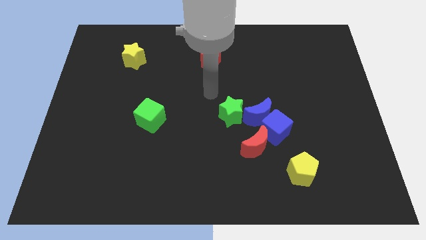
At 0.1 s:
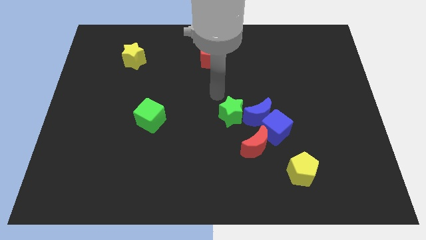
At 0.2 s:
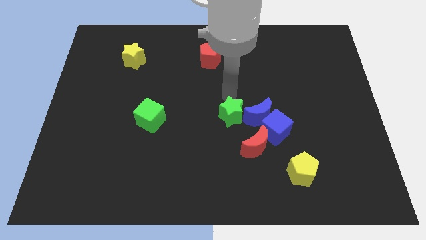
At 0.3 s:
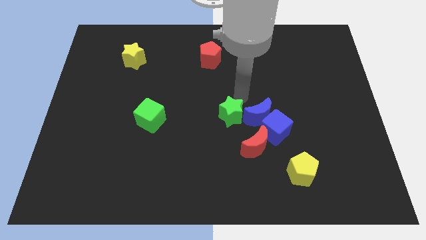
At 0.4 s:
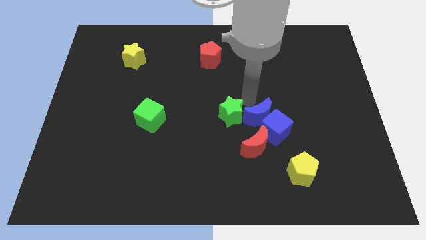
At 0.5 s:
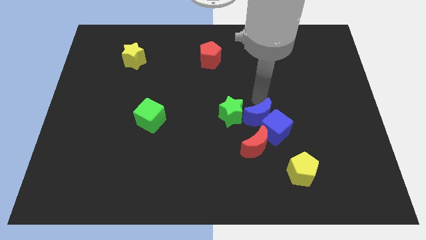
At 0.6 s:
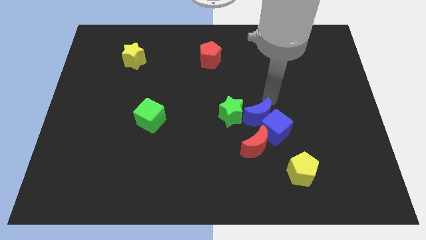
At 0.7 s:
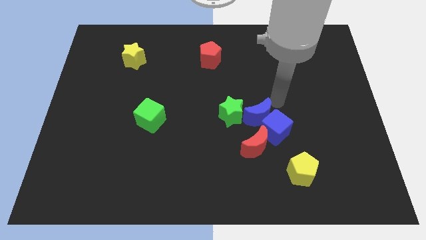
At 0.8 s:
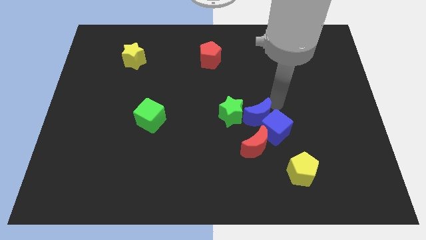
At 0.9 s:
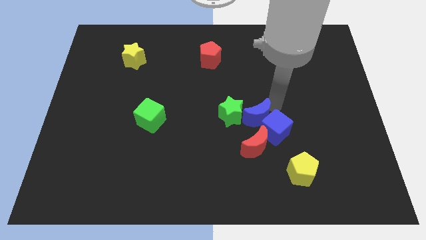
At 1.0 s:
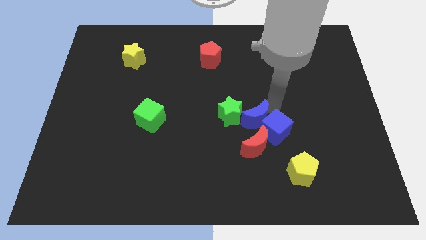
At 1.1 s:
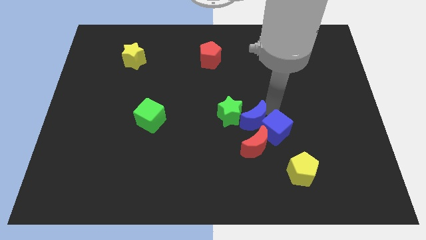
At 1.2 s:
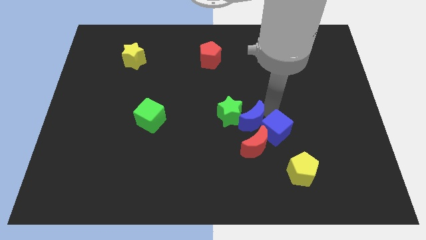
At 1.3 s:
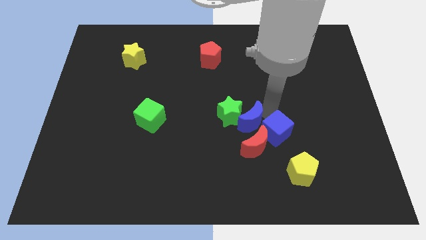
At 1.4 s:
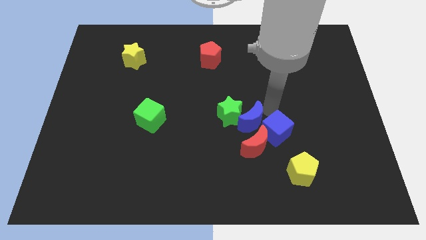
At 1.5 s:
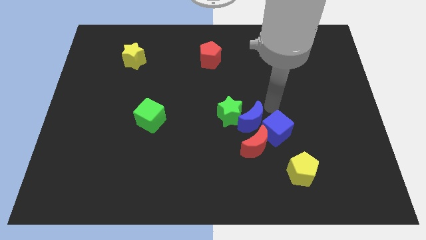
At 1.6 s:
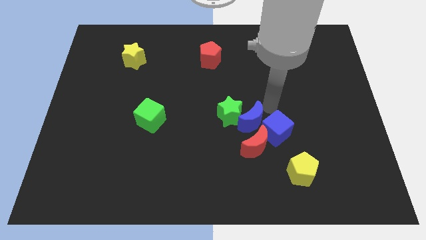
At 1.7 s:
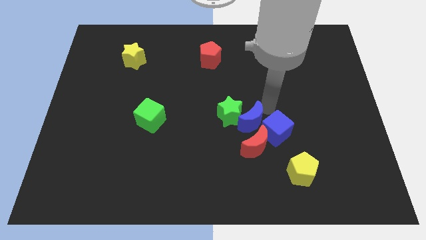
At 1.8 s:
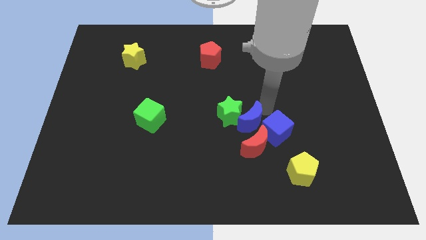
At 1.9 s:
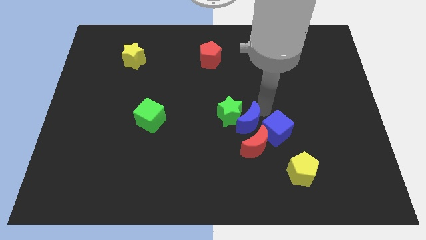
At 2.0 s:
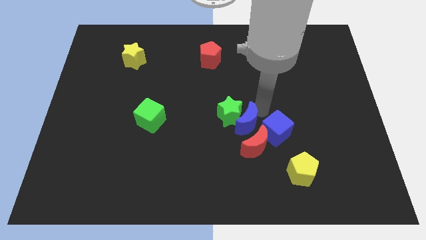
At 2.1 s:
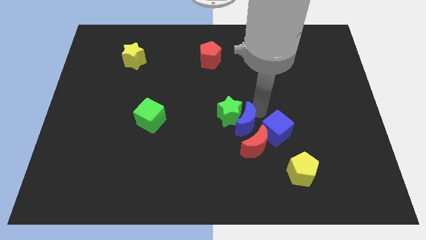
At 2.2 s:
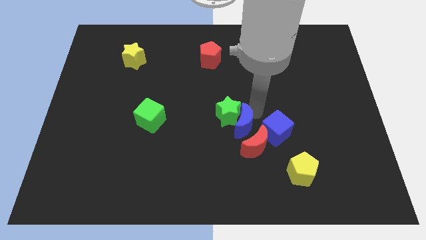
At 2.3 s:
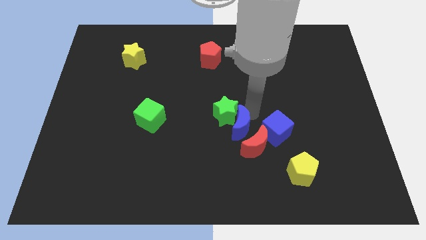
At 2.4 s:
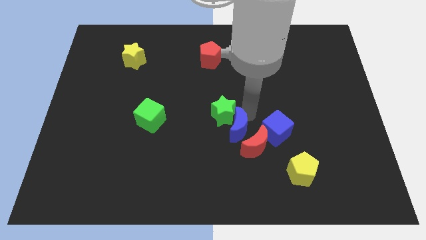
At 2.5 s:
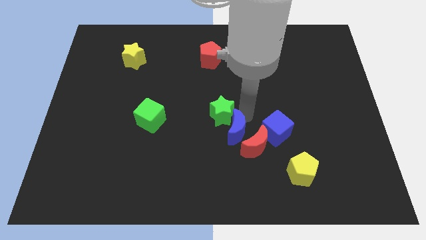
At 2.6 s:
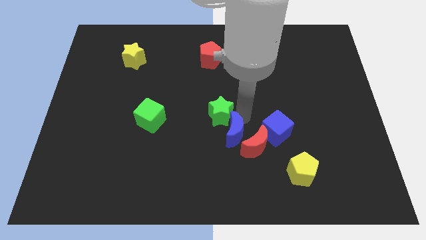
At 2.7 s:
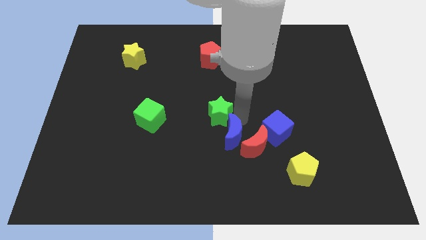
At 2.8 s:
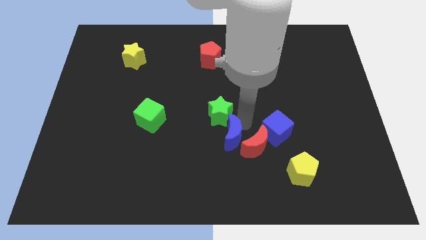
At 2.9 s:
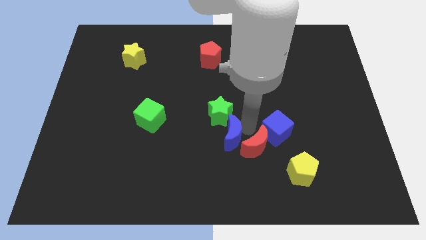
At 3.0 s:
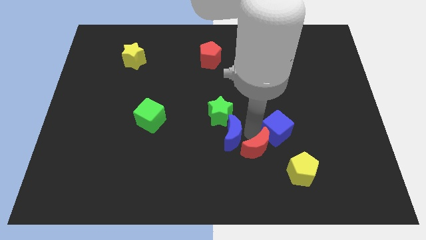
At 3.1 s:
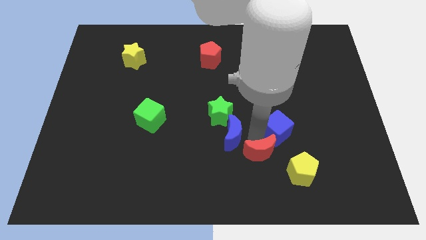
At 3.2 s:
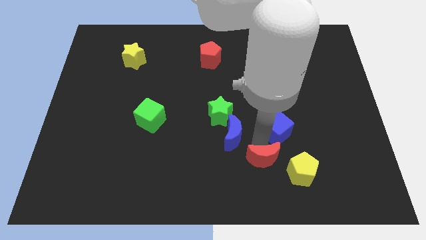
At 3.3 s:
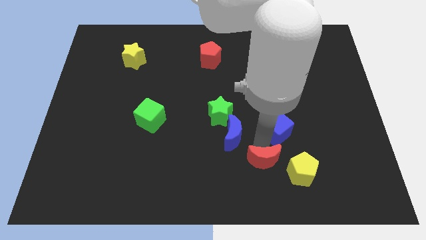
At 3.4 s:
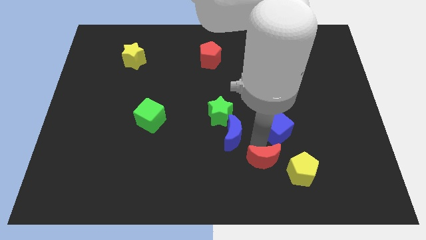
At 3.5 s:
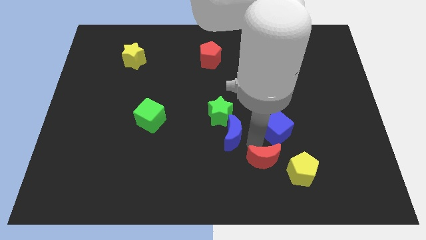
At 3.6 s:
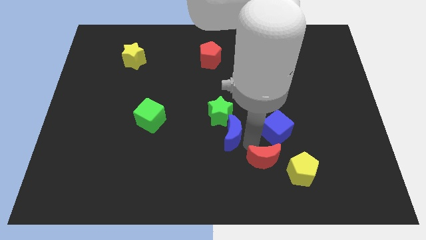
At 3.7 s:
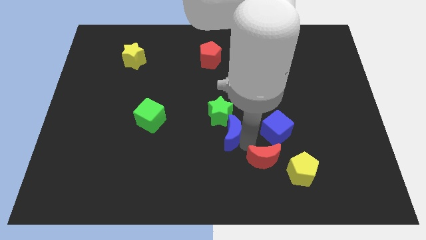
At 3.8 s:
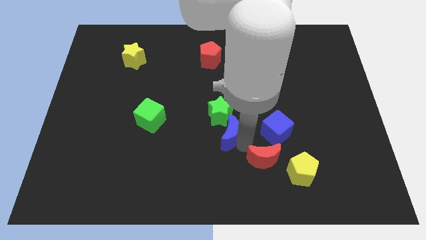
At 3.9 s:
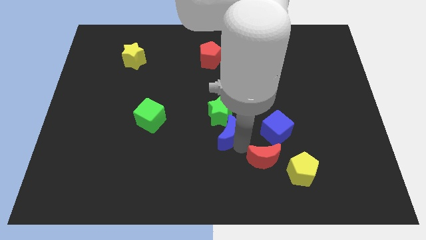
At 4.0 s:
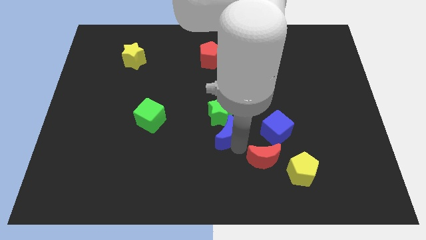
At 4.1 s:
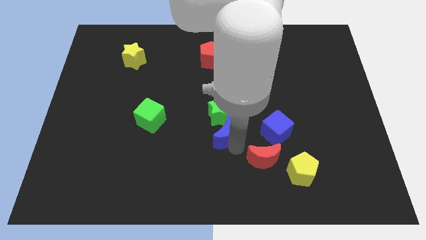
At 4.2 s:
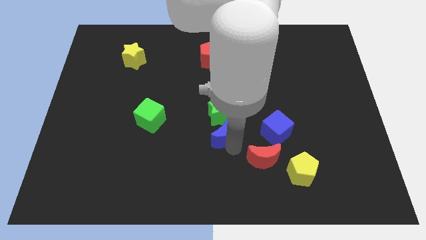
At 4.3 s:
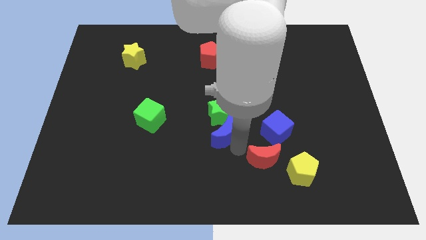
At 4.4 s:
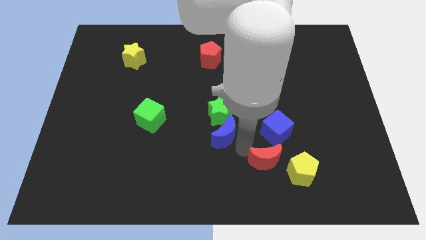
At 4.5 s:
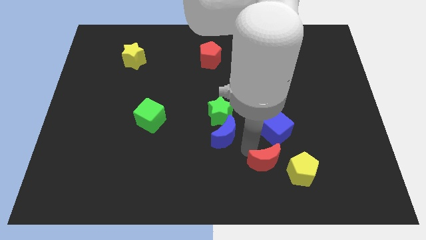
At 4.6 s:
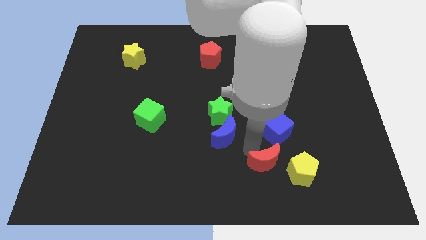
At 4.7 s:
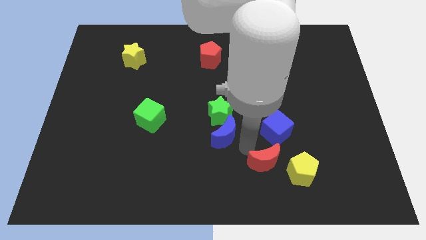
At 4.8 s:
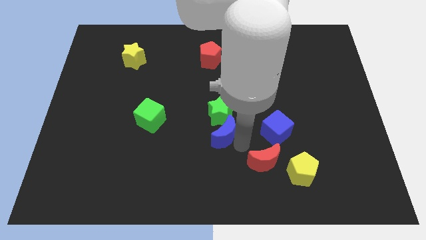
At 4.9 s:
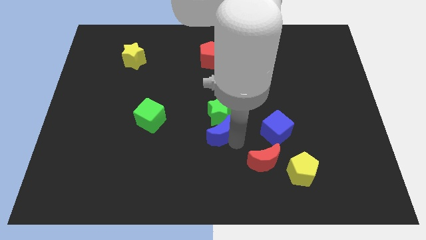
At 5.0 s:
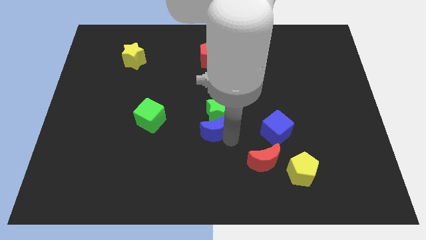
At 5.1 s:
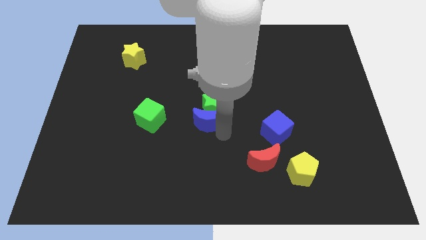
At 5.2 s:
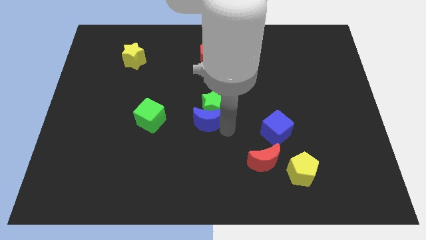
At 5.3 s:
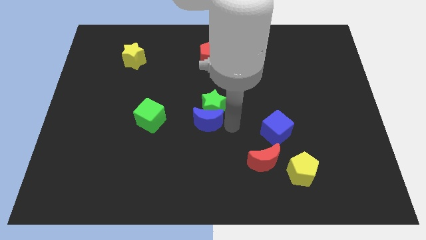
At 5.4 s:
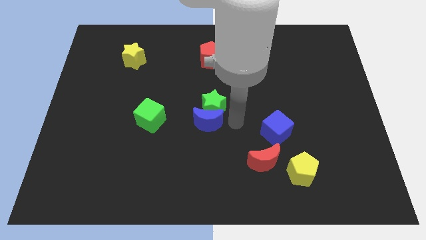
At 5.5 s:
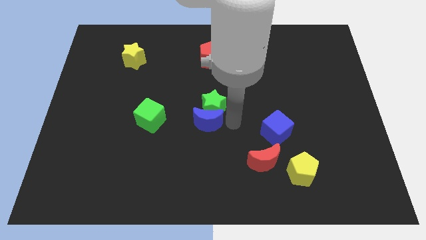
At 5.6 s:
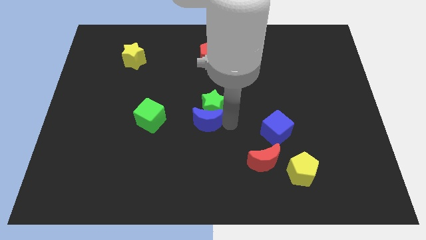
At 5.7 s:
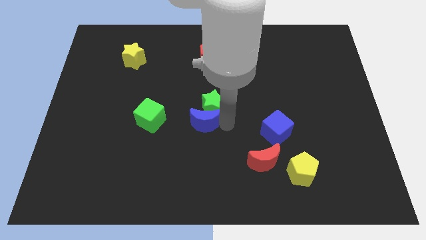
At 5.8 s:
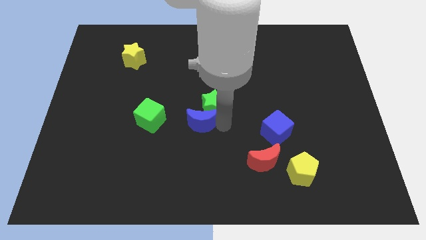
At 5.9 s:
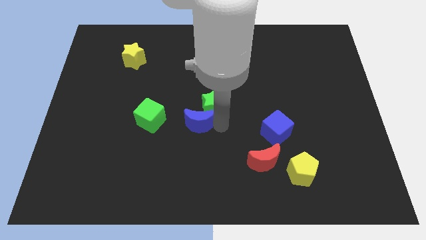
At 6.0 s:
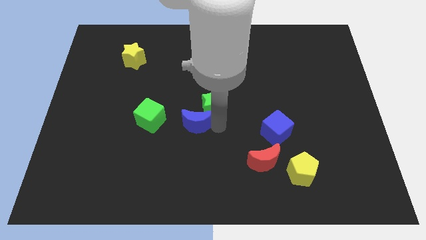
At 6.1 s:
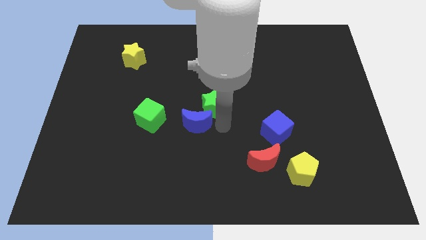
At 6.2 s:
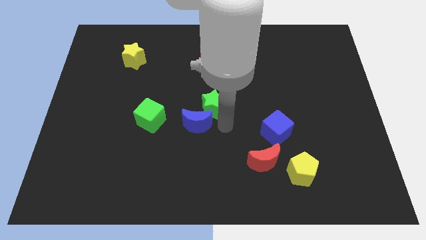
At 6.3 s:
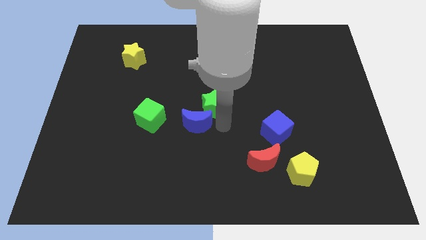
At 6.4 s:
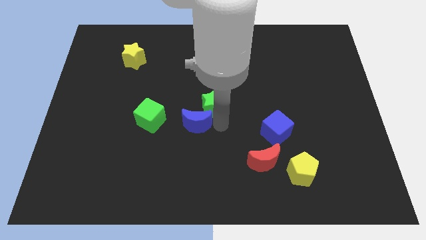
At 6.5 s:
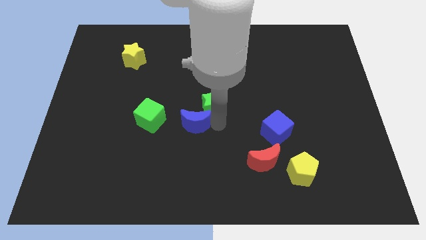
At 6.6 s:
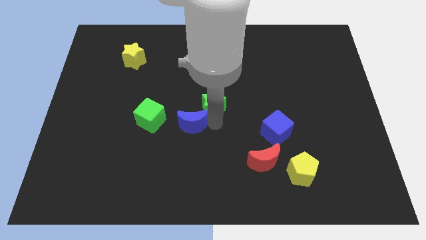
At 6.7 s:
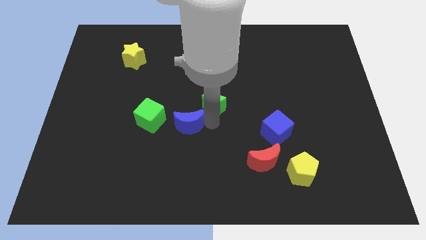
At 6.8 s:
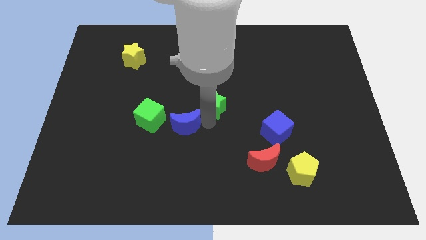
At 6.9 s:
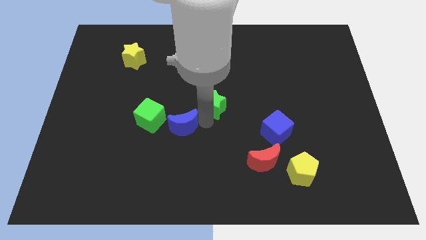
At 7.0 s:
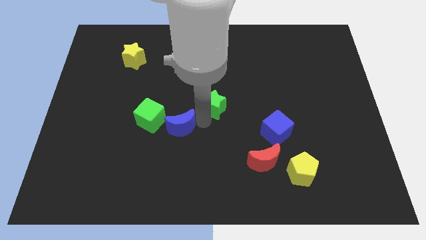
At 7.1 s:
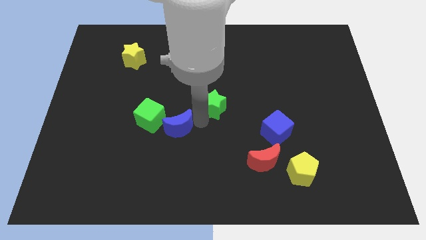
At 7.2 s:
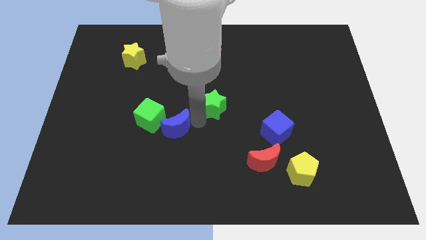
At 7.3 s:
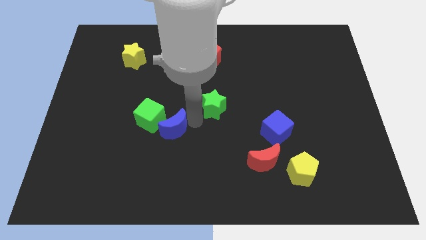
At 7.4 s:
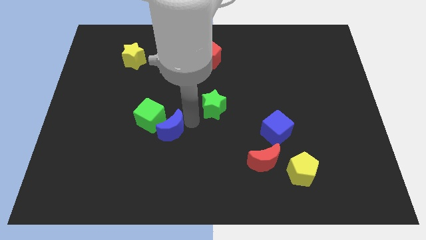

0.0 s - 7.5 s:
move the blue moon next to the green cube
